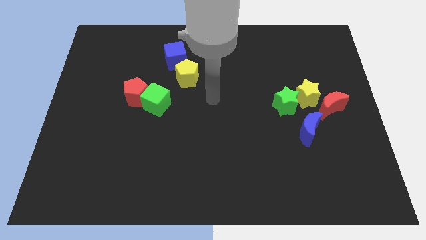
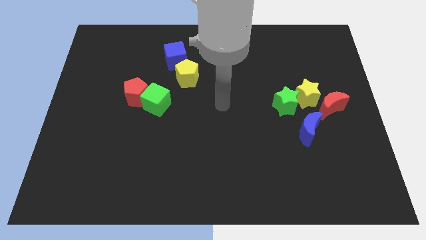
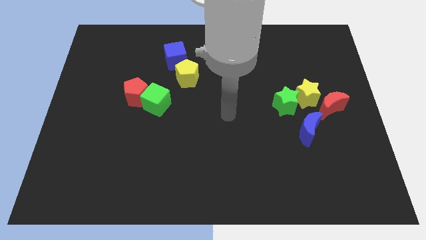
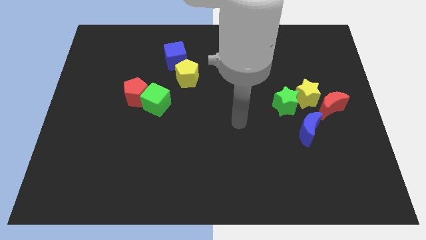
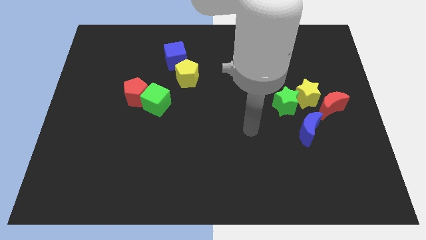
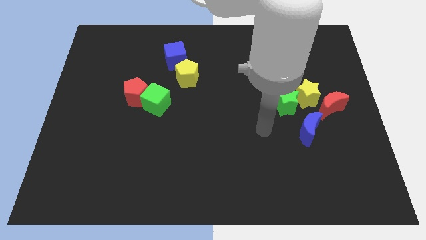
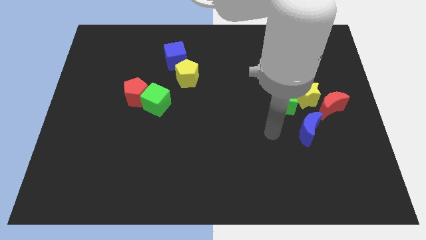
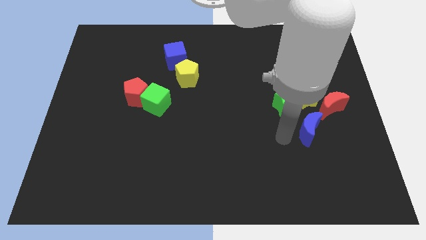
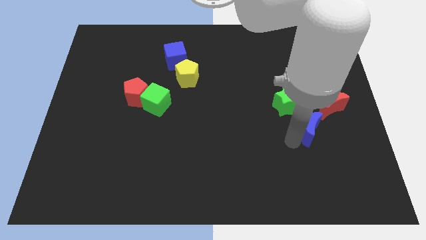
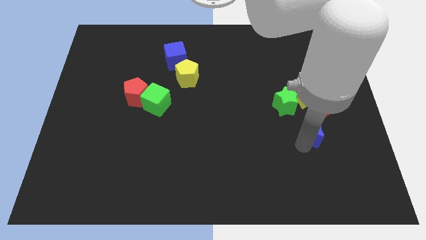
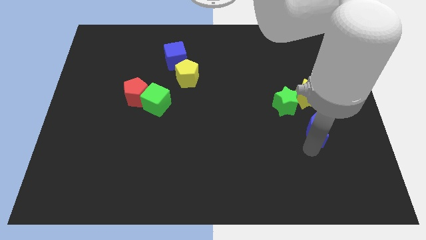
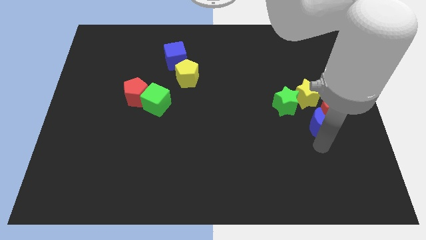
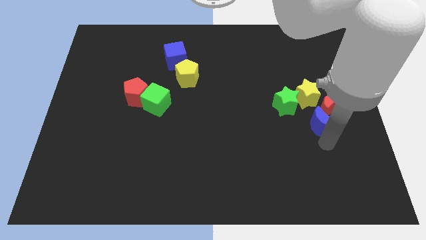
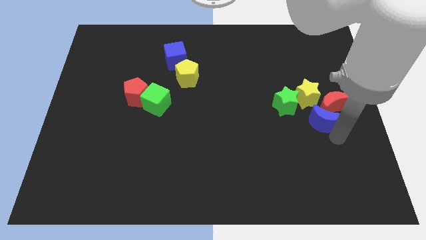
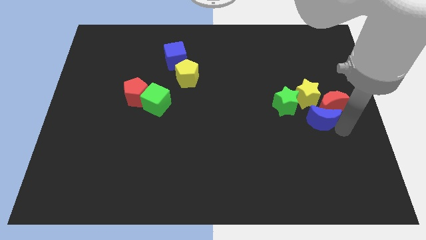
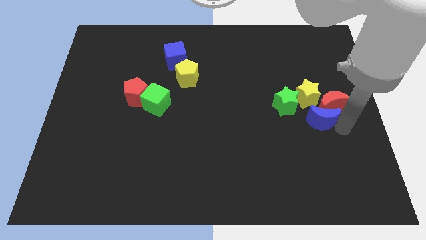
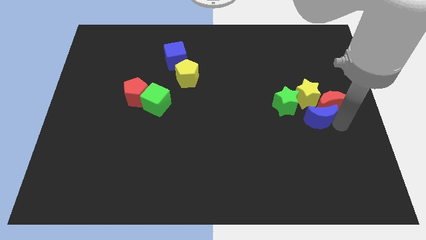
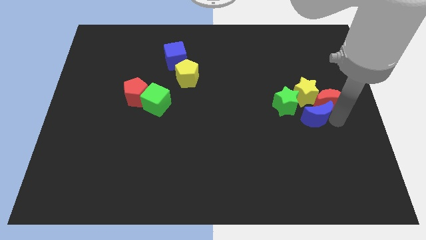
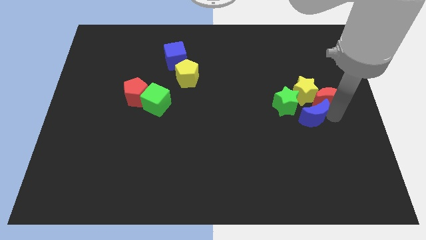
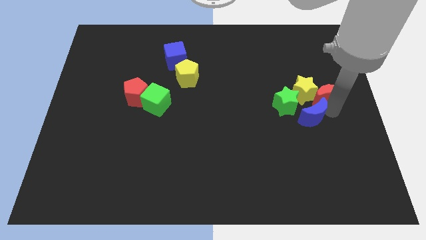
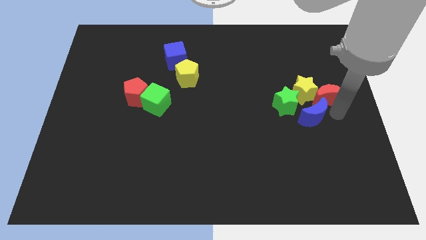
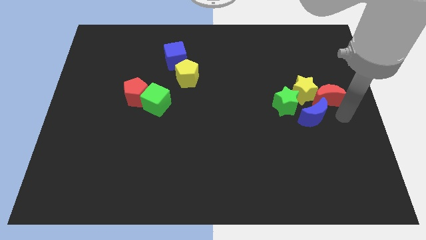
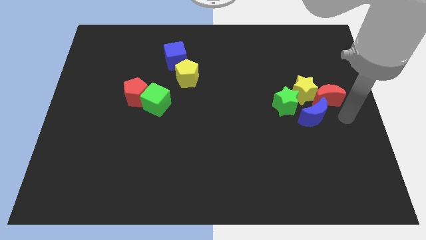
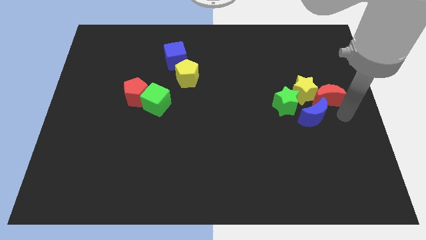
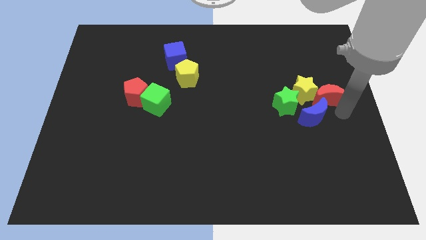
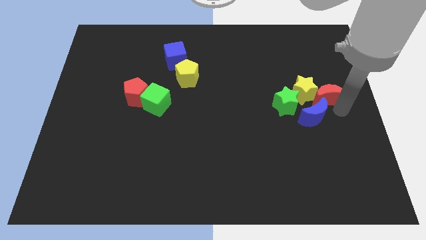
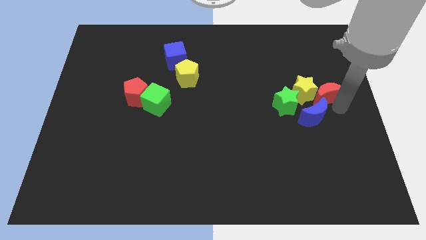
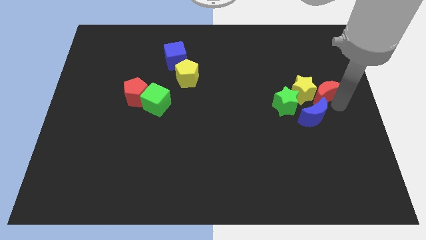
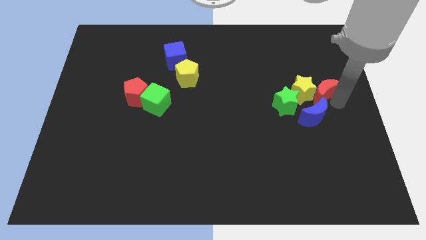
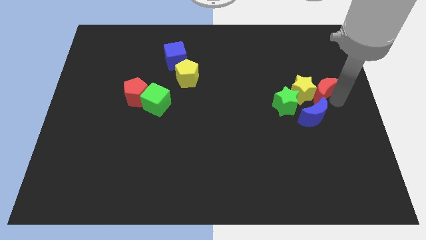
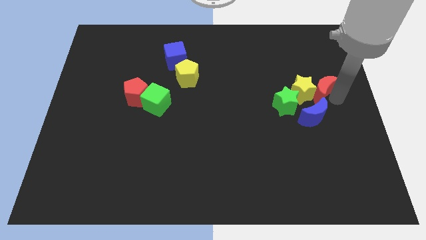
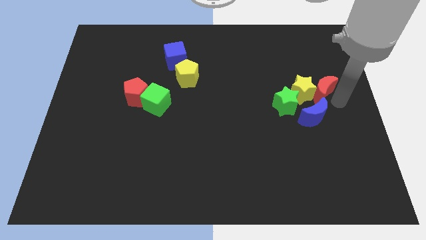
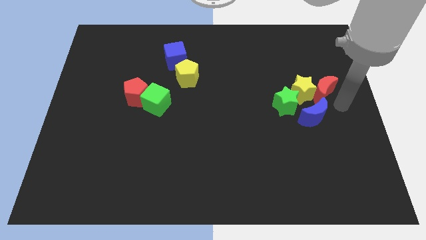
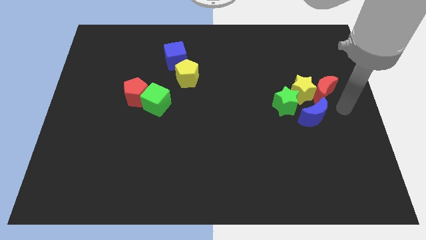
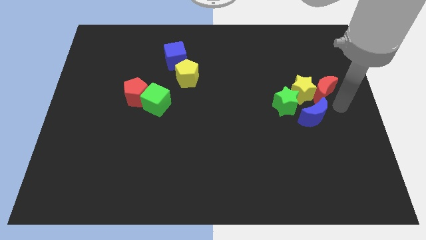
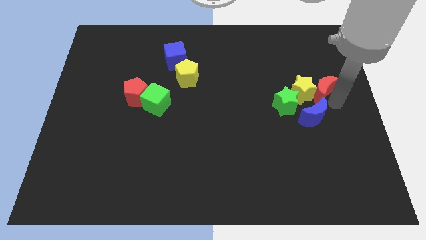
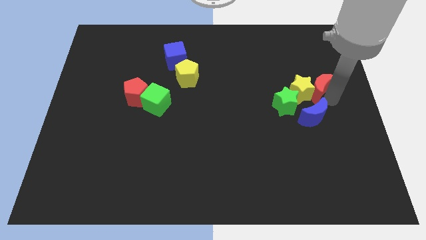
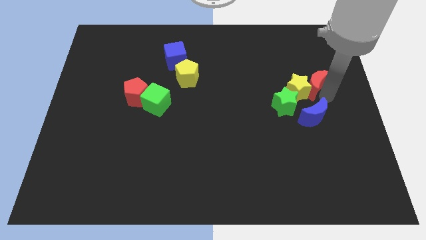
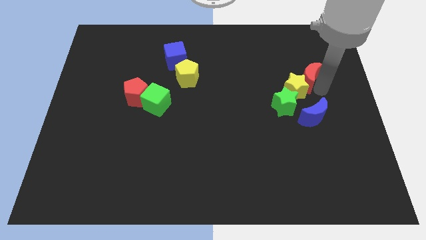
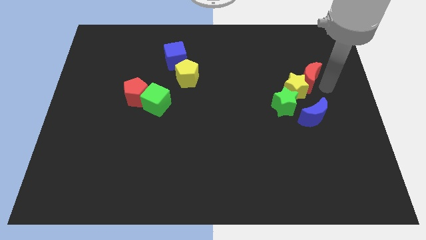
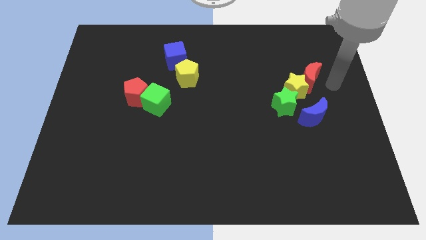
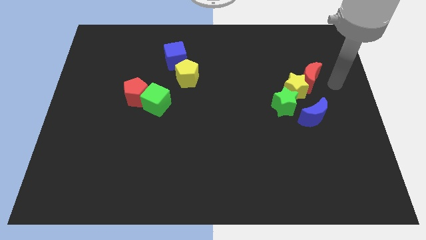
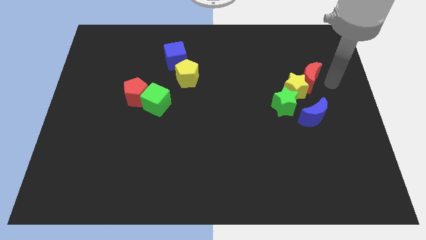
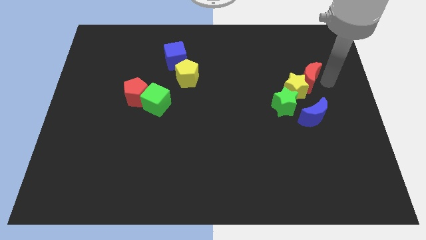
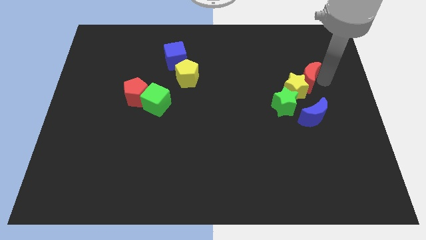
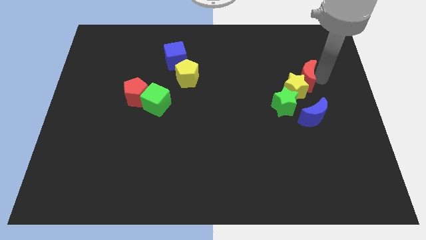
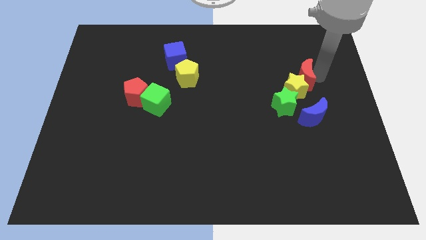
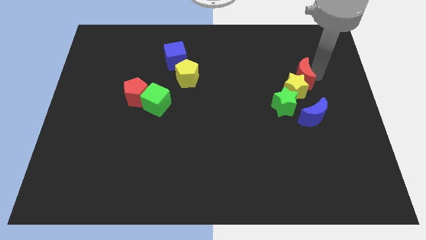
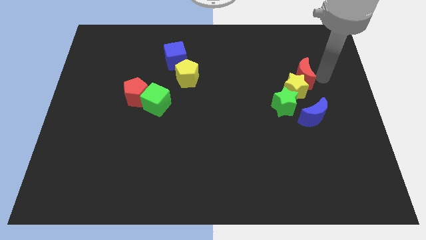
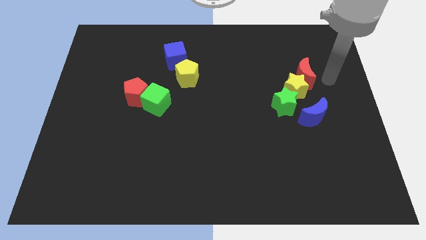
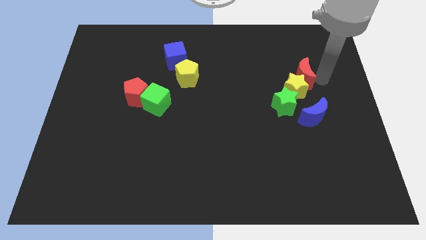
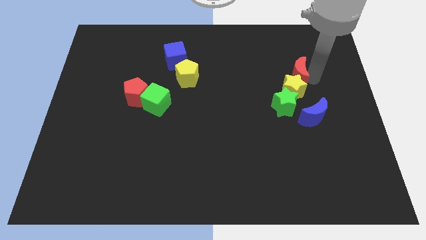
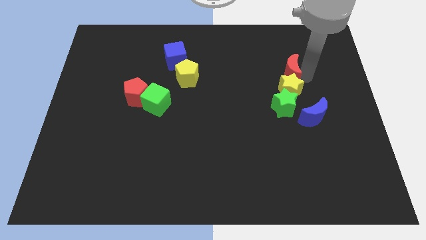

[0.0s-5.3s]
push the red moon to the top left side of the yellow star

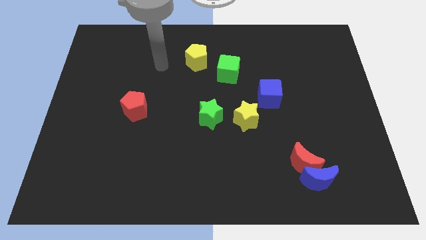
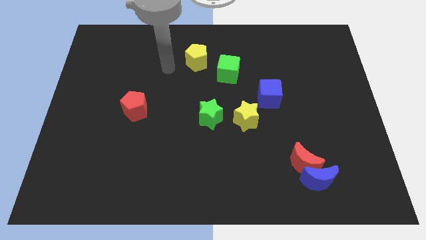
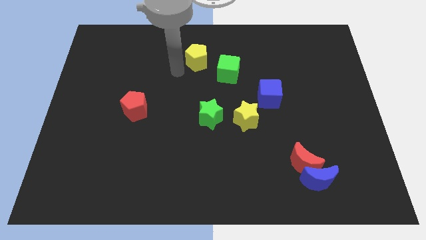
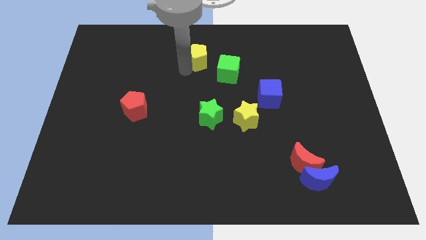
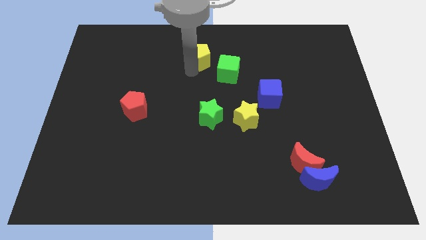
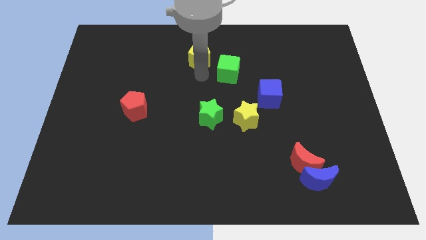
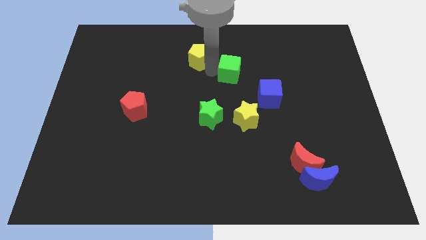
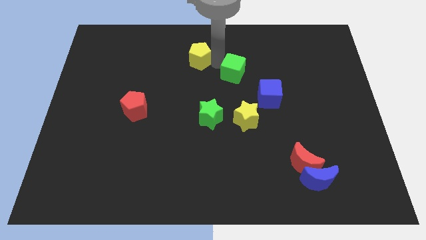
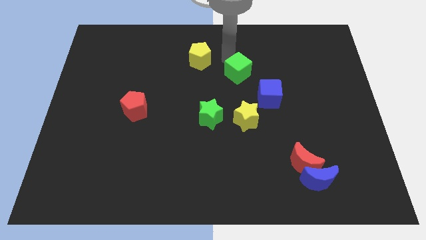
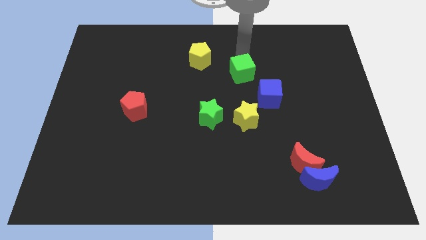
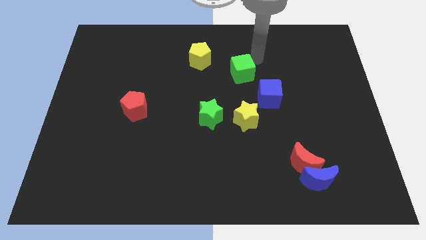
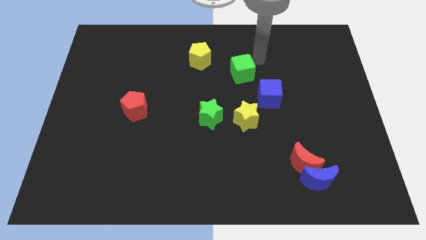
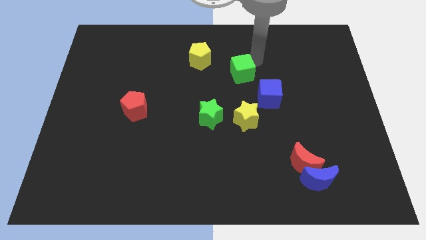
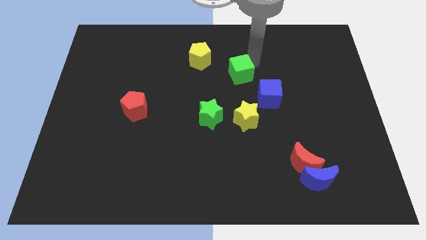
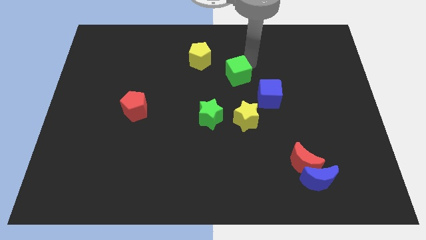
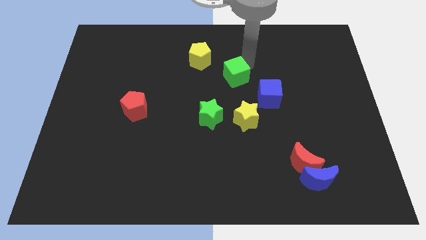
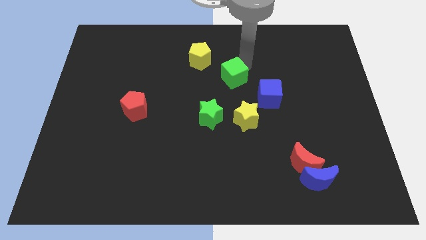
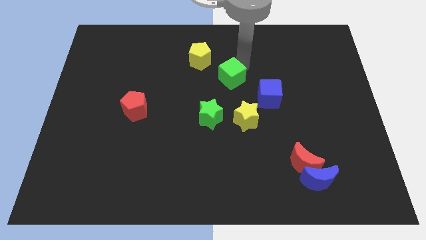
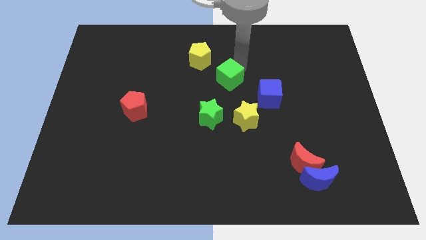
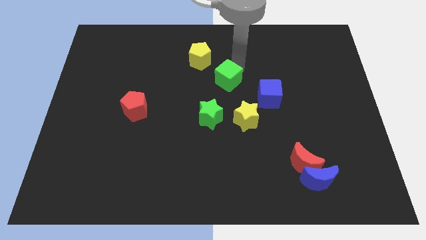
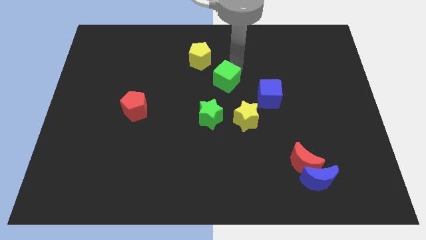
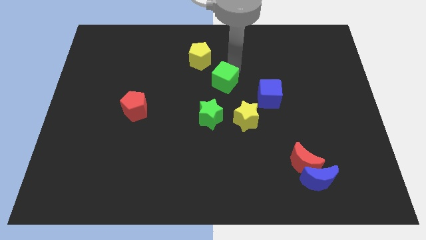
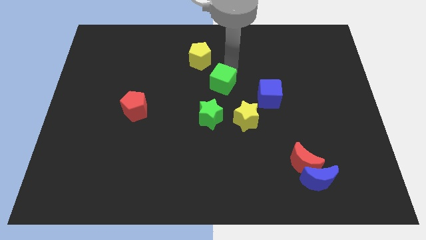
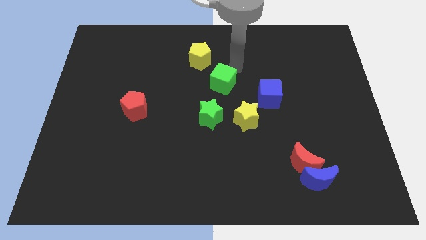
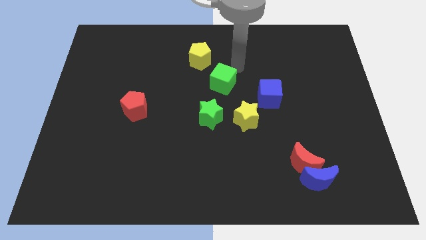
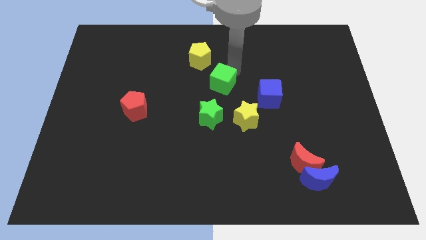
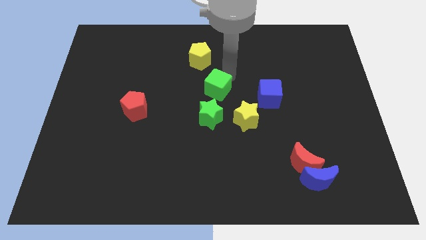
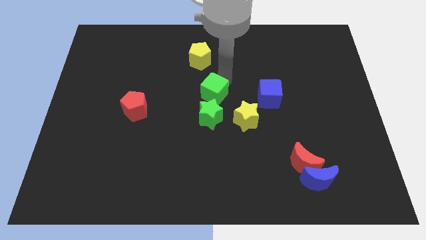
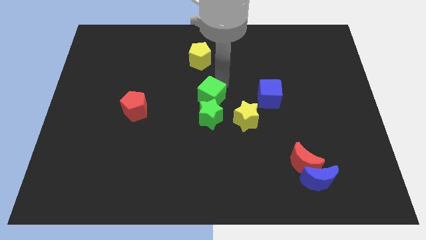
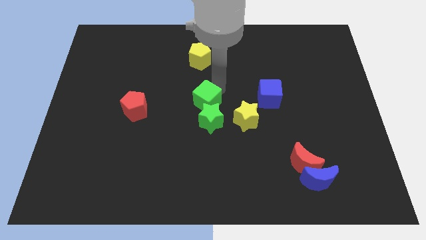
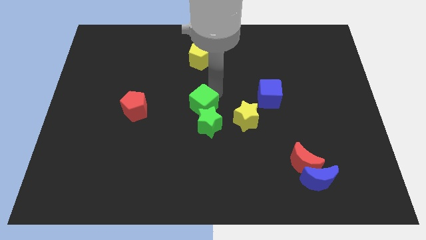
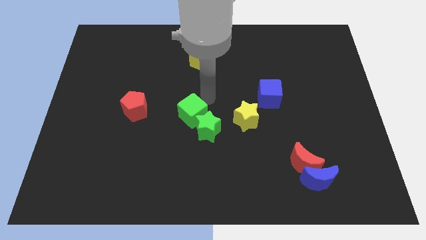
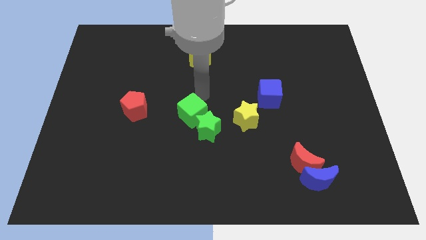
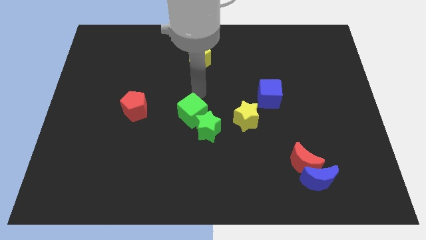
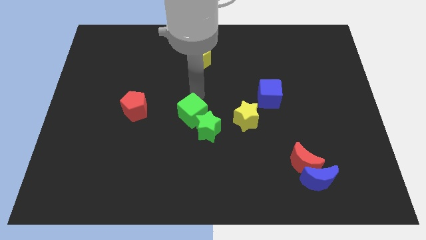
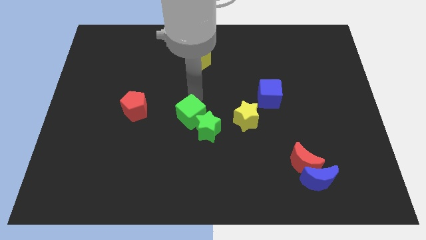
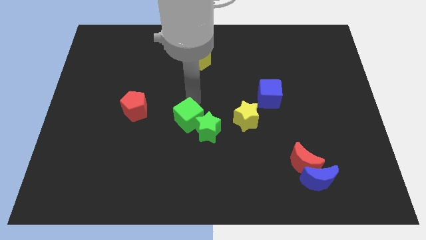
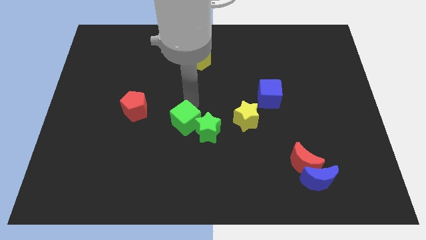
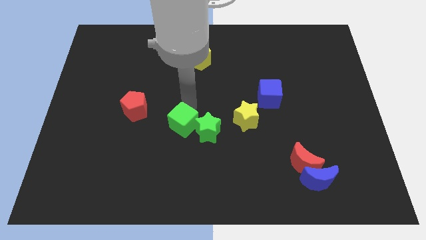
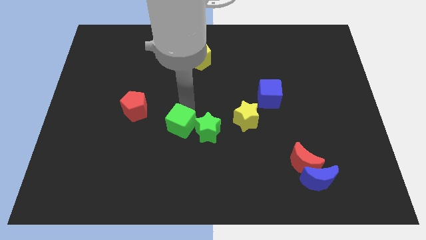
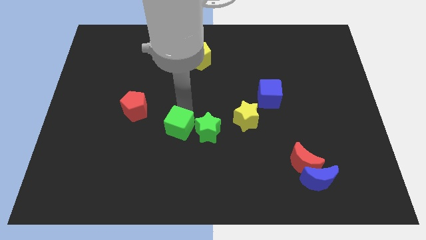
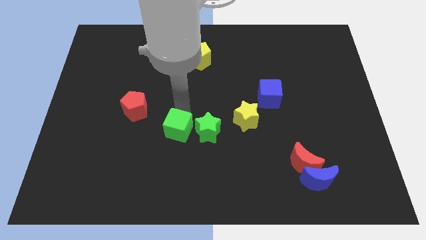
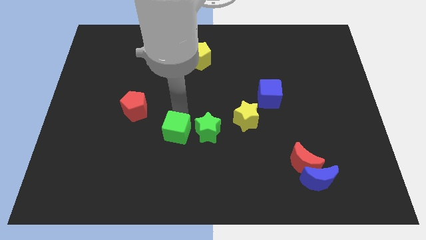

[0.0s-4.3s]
push the green cube diagonally down and to the left of the green star
